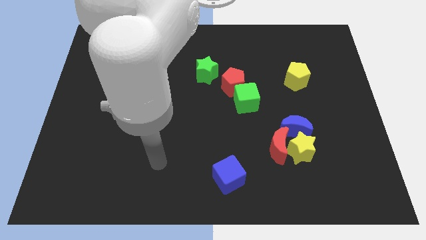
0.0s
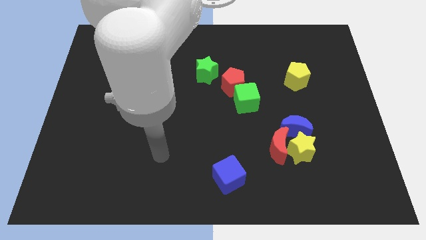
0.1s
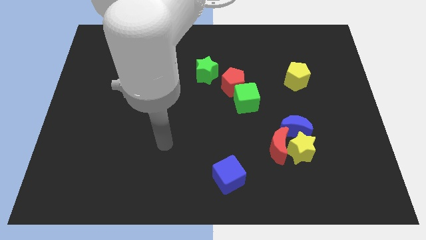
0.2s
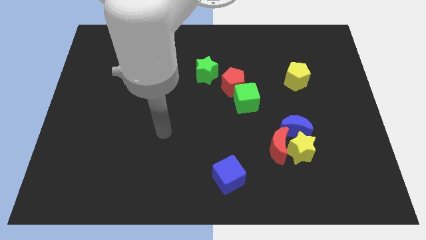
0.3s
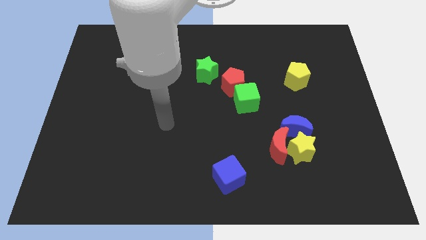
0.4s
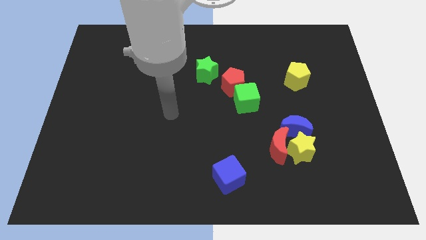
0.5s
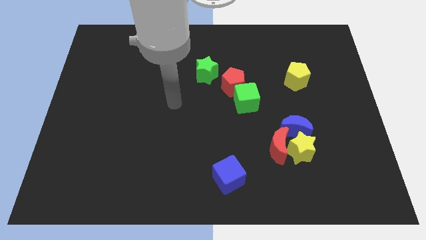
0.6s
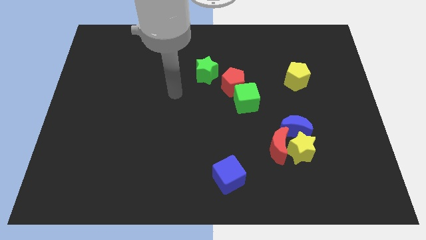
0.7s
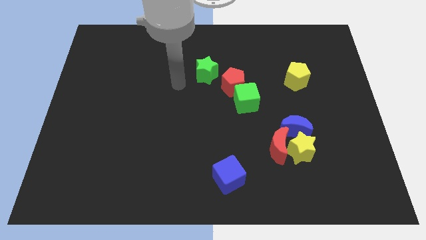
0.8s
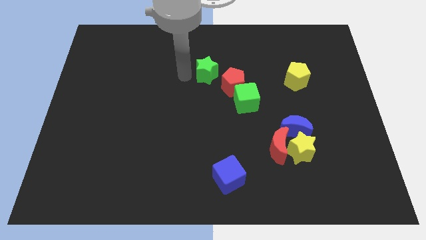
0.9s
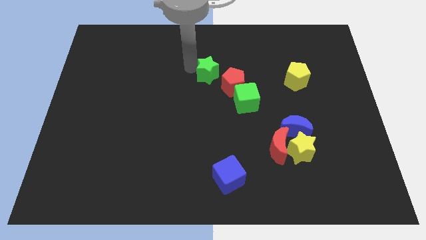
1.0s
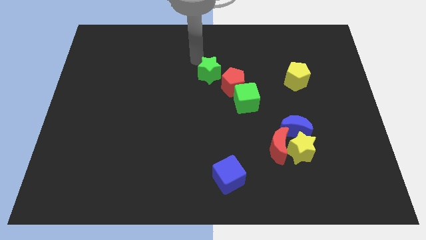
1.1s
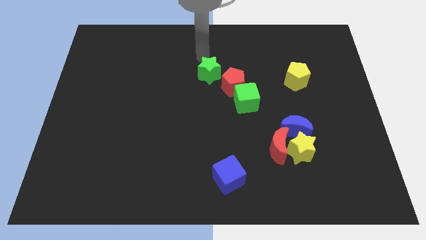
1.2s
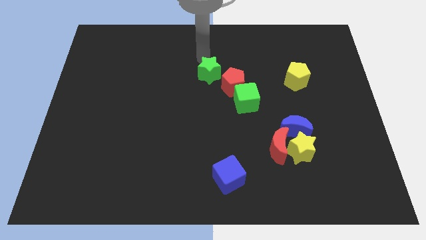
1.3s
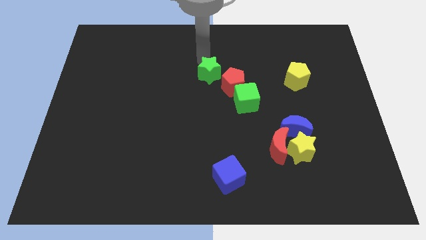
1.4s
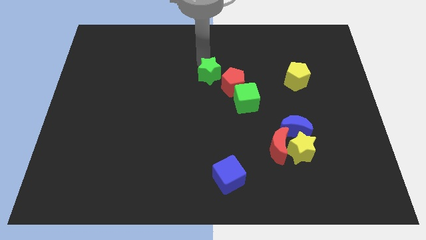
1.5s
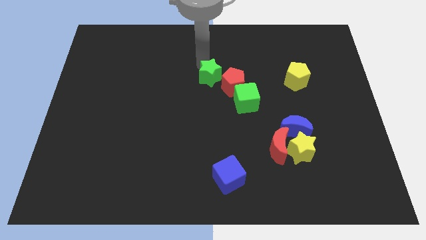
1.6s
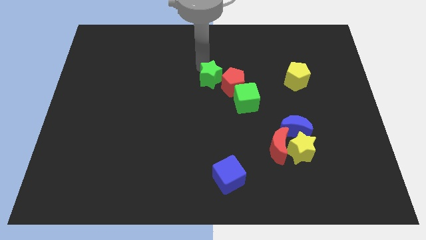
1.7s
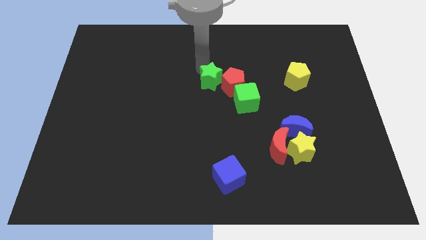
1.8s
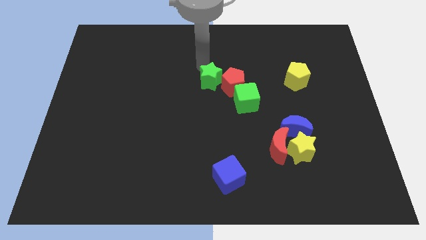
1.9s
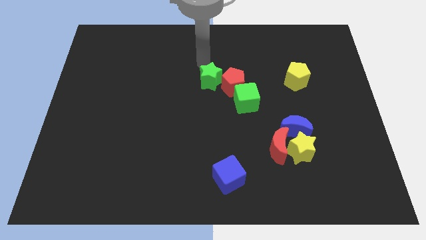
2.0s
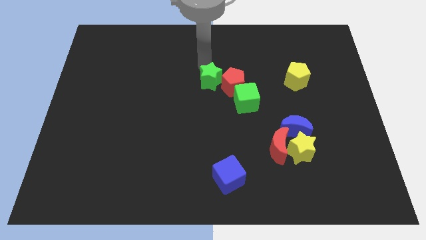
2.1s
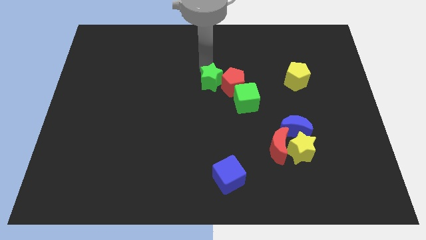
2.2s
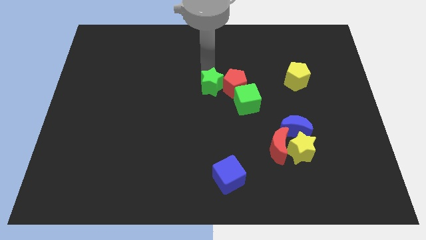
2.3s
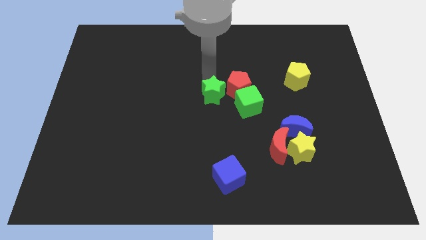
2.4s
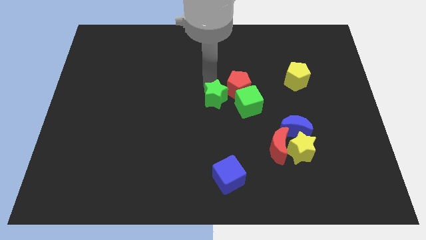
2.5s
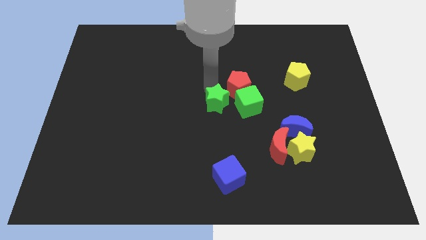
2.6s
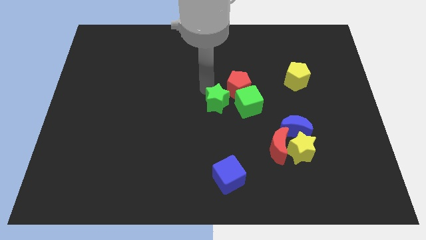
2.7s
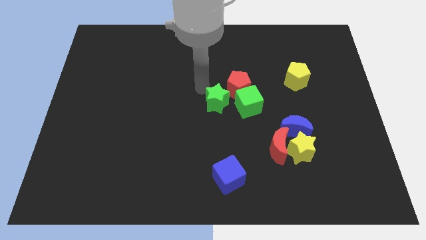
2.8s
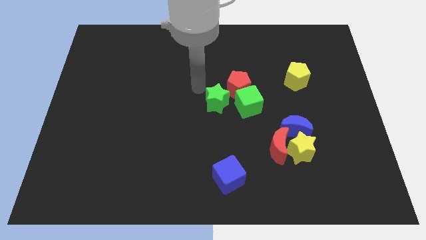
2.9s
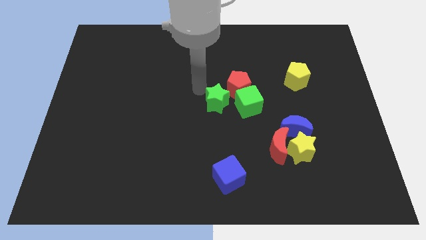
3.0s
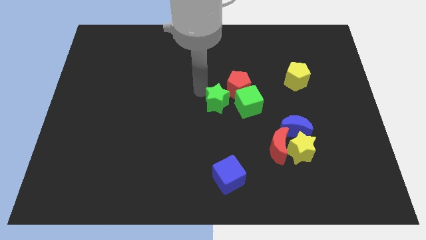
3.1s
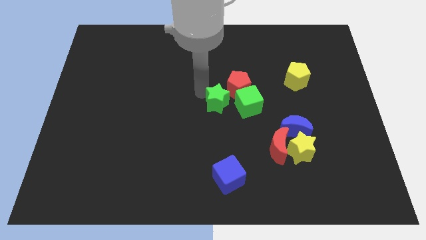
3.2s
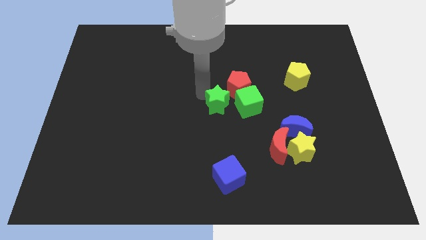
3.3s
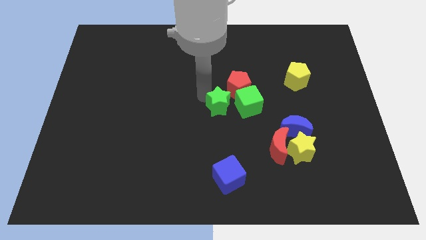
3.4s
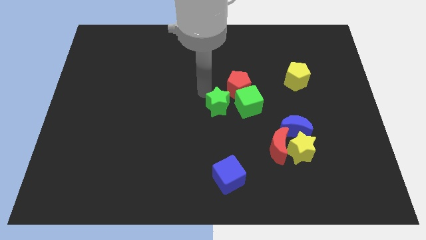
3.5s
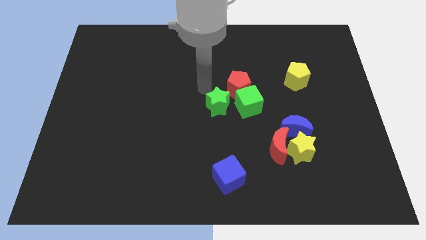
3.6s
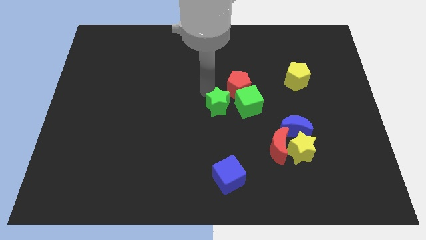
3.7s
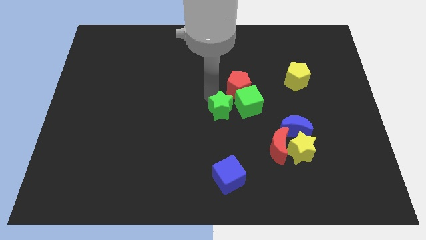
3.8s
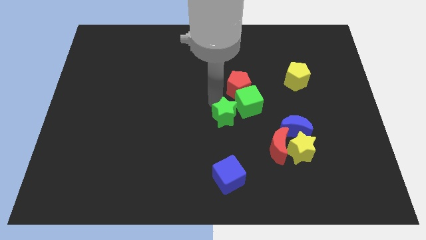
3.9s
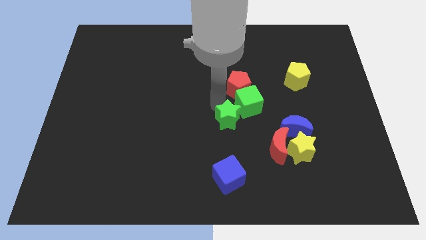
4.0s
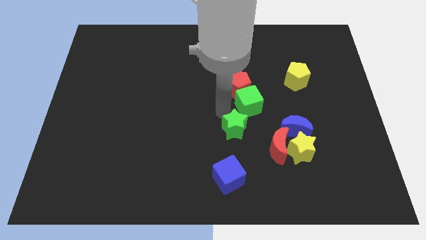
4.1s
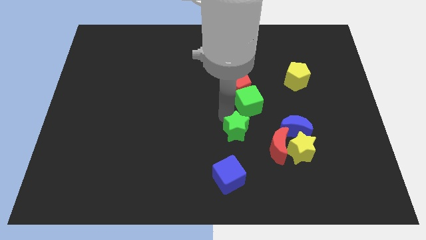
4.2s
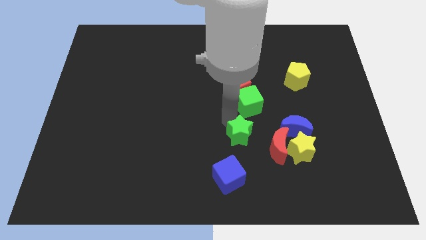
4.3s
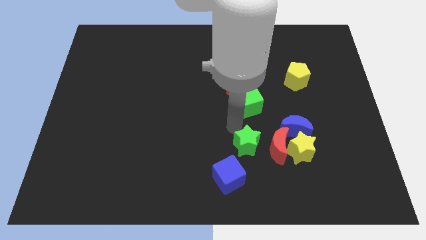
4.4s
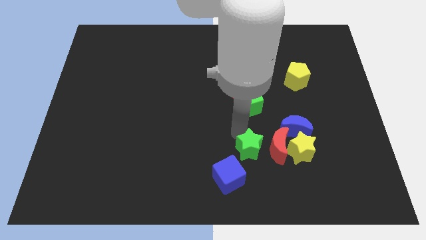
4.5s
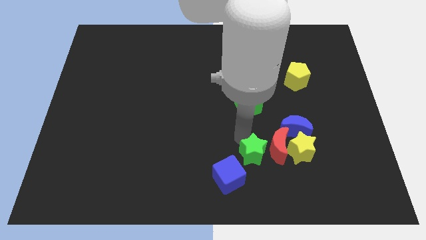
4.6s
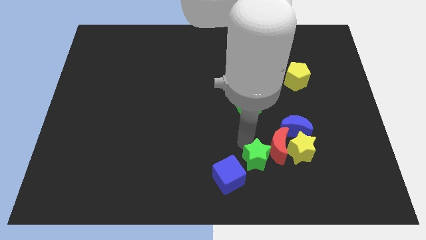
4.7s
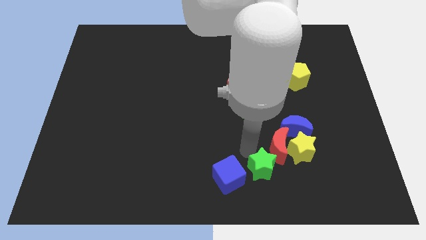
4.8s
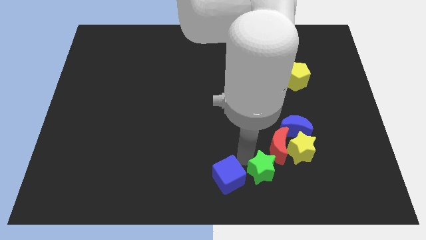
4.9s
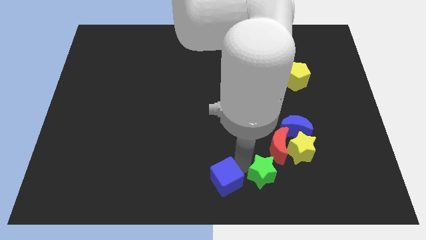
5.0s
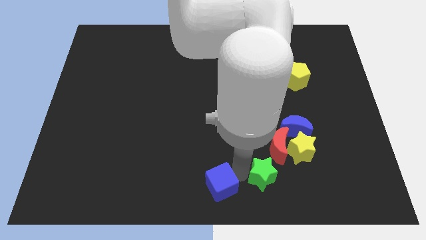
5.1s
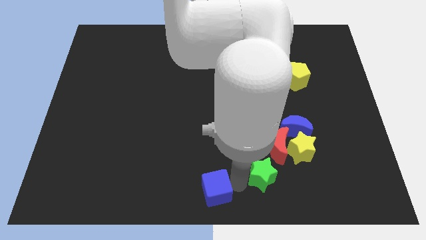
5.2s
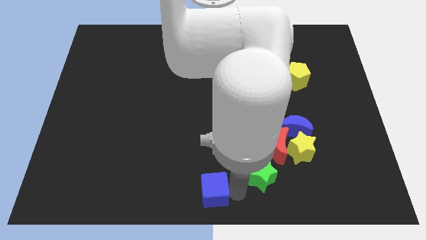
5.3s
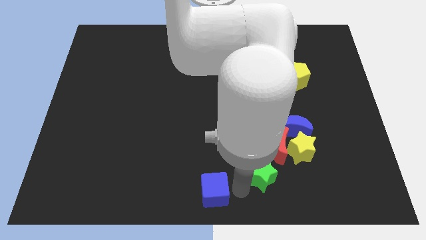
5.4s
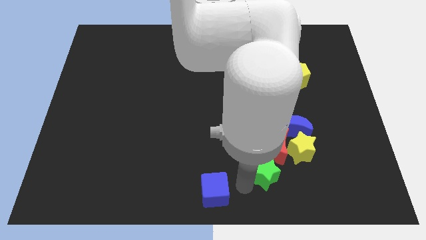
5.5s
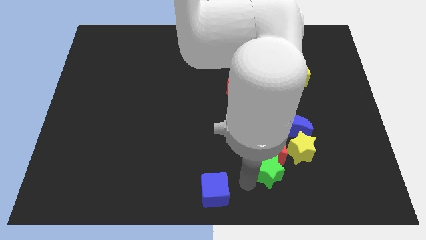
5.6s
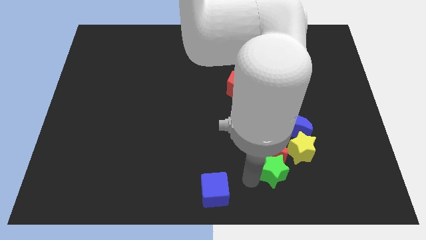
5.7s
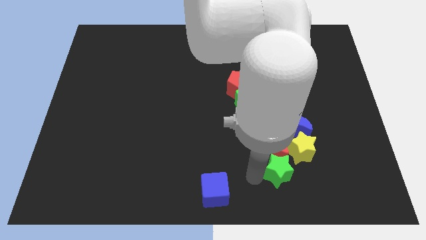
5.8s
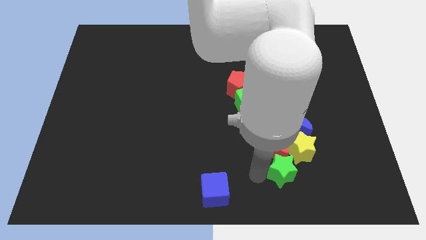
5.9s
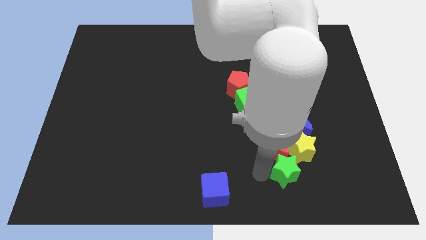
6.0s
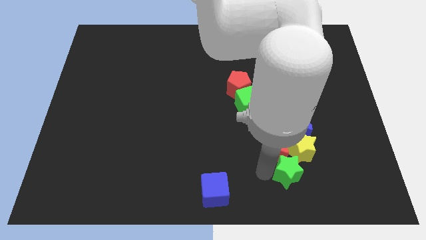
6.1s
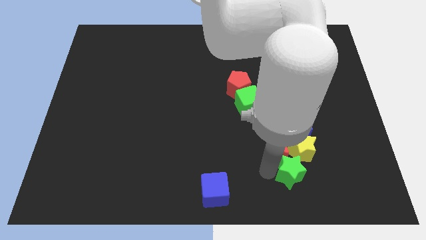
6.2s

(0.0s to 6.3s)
put the green star towards the yellow star

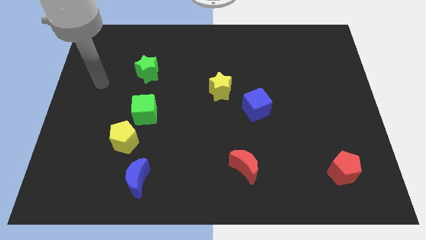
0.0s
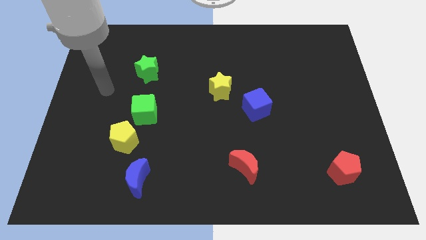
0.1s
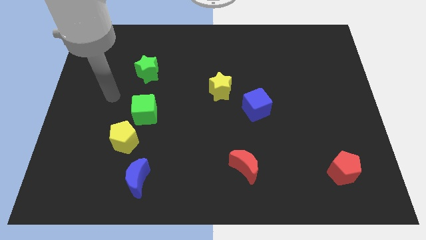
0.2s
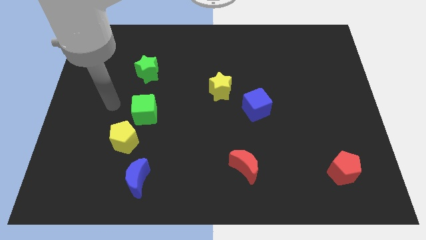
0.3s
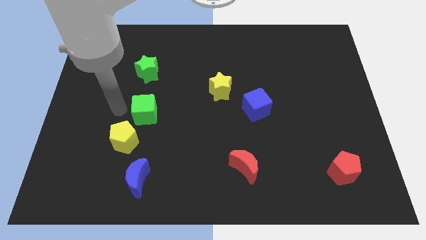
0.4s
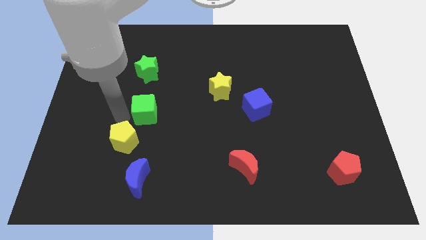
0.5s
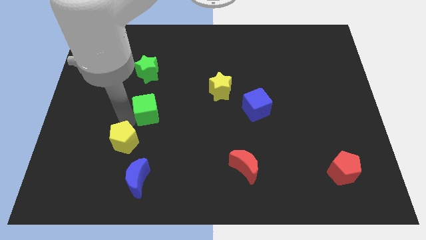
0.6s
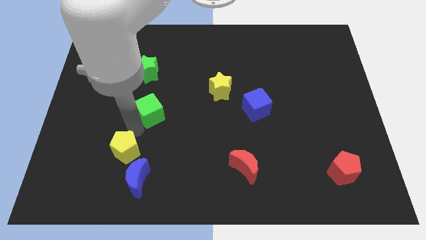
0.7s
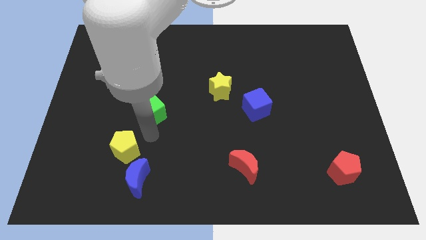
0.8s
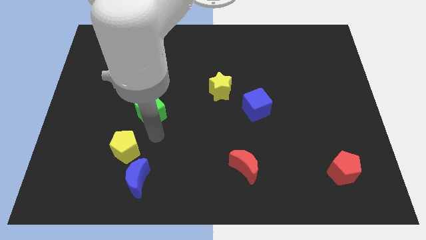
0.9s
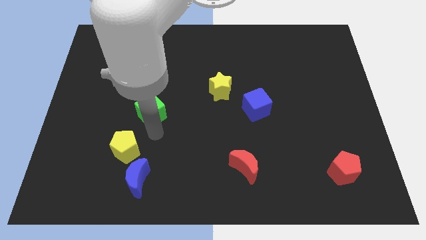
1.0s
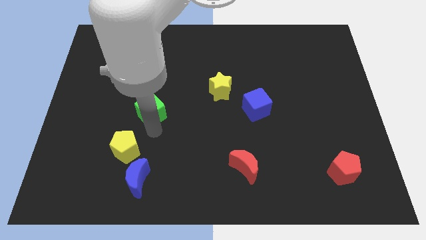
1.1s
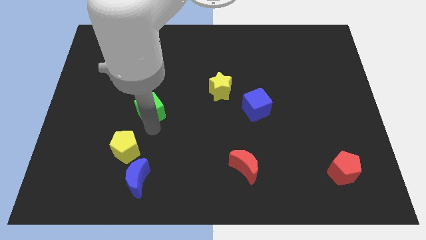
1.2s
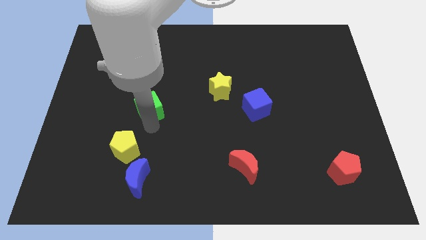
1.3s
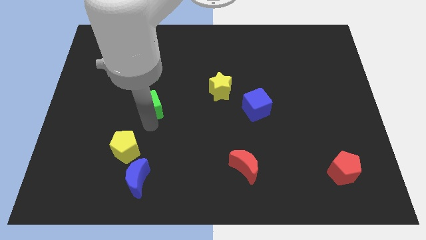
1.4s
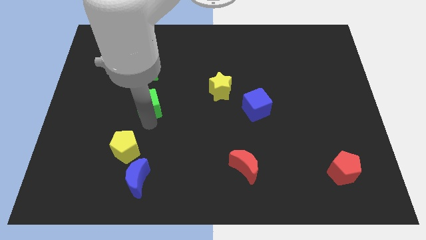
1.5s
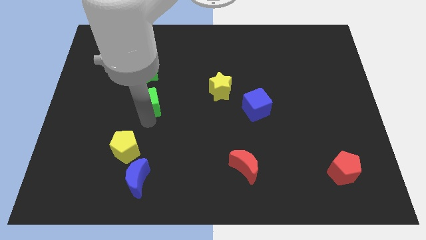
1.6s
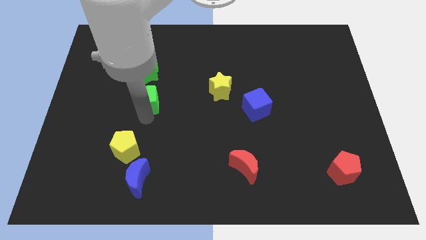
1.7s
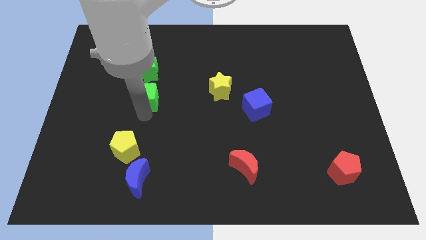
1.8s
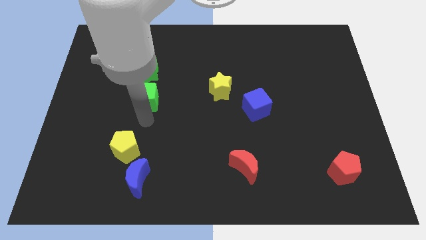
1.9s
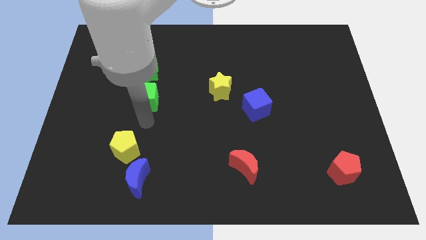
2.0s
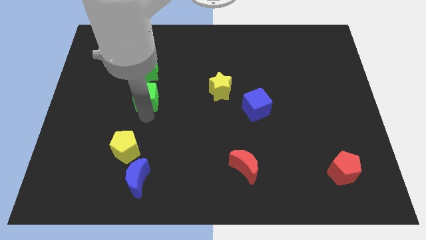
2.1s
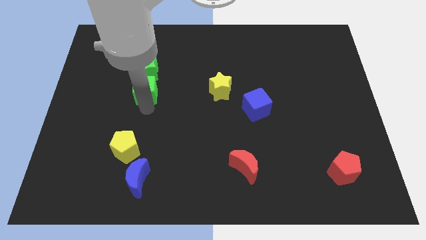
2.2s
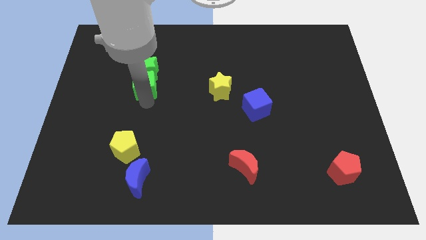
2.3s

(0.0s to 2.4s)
move the green cube to the green star
